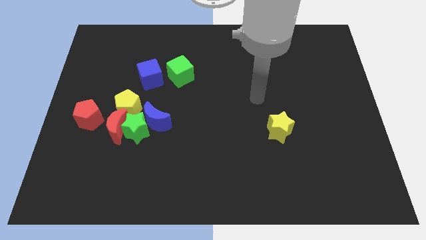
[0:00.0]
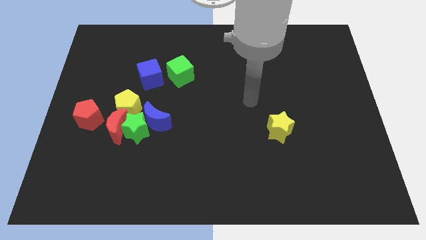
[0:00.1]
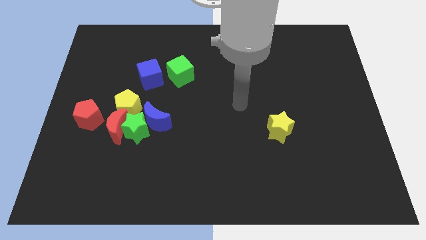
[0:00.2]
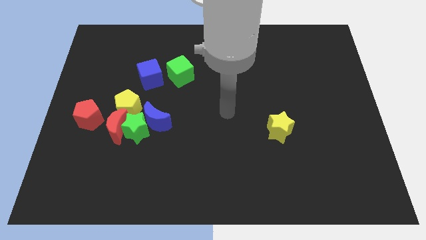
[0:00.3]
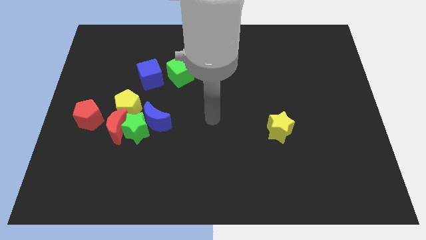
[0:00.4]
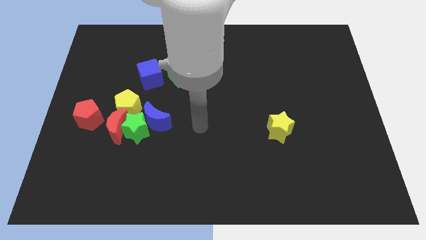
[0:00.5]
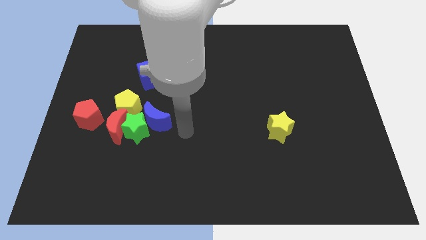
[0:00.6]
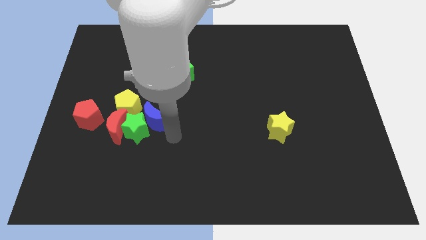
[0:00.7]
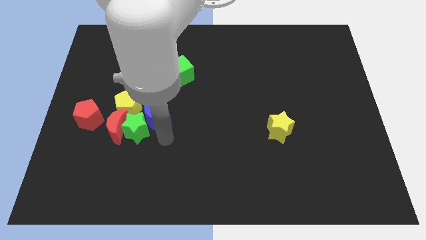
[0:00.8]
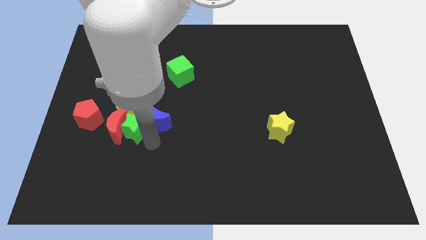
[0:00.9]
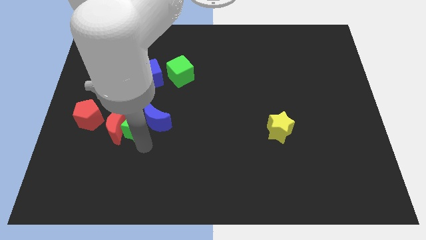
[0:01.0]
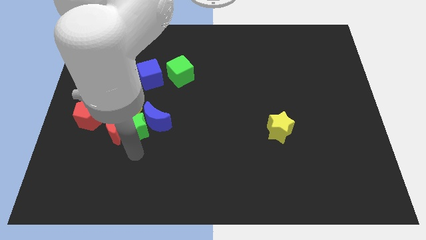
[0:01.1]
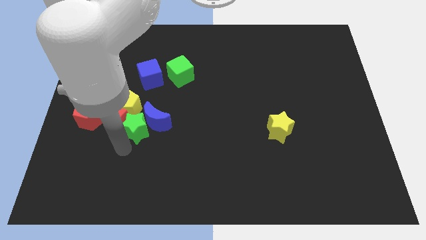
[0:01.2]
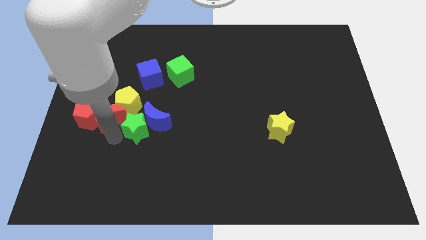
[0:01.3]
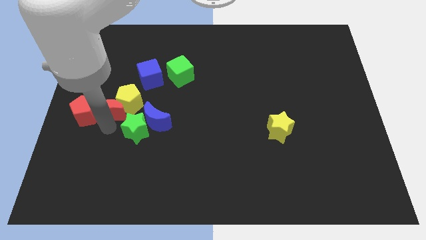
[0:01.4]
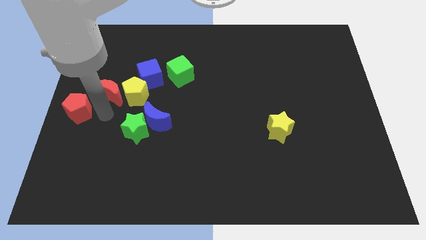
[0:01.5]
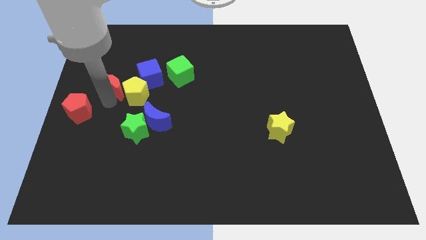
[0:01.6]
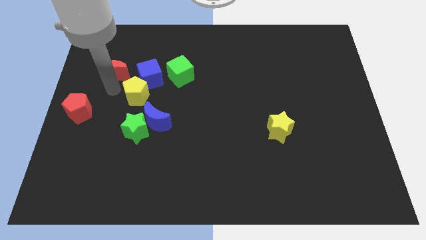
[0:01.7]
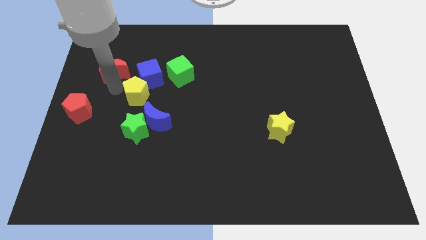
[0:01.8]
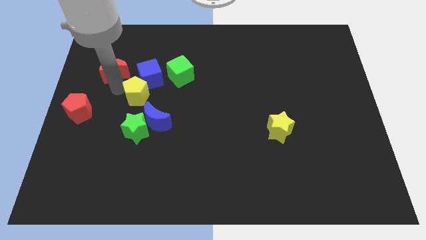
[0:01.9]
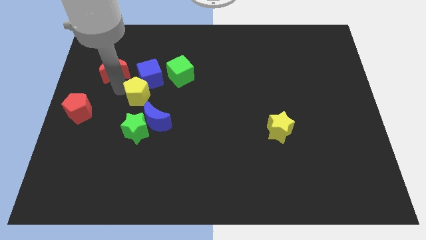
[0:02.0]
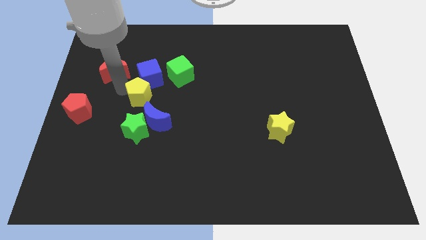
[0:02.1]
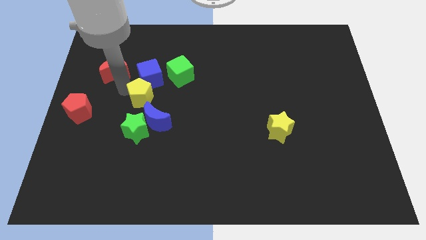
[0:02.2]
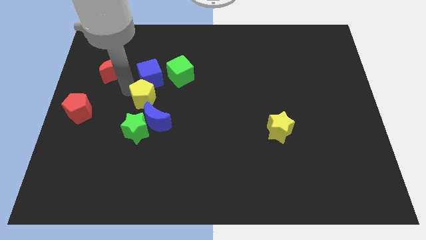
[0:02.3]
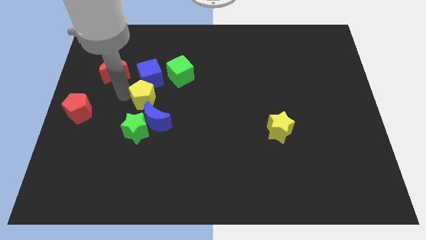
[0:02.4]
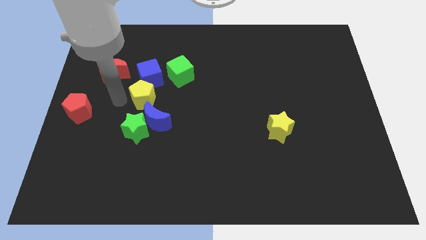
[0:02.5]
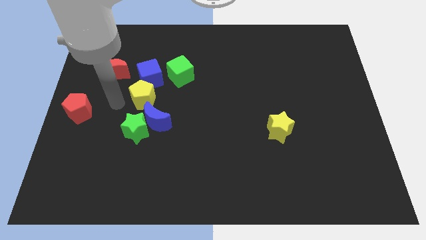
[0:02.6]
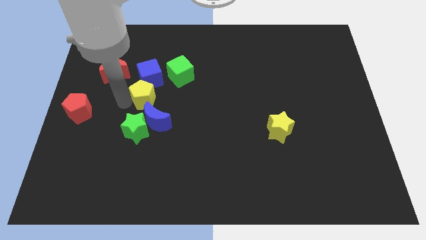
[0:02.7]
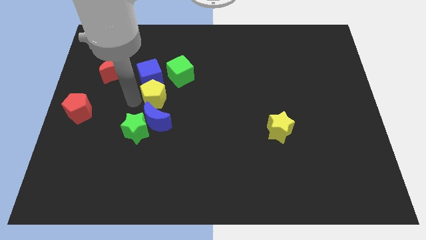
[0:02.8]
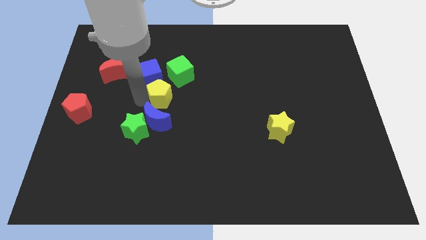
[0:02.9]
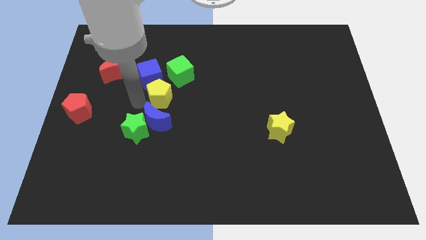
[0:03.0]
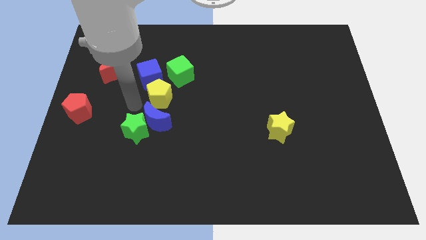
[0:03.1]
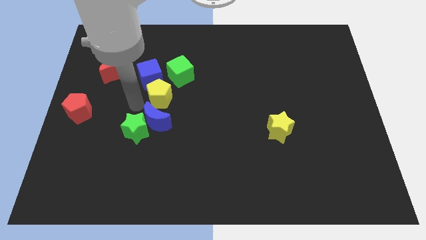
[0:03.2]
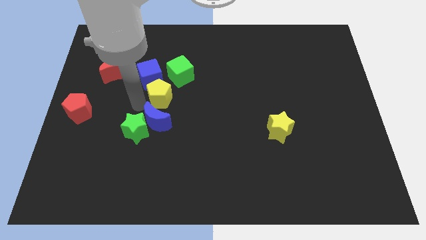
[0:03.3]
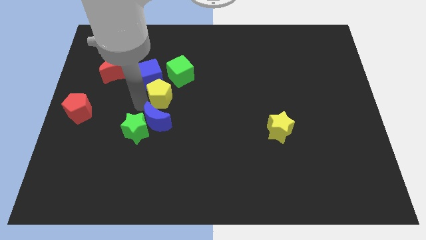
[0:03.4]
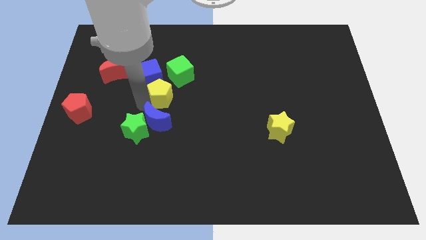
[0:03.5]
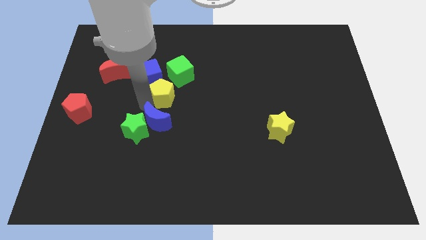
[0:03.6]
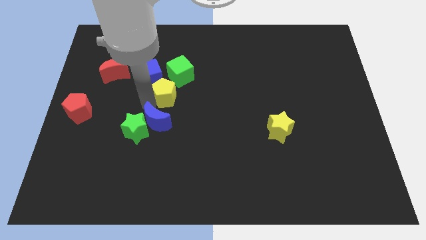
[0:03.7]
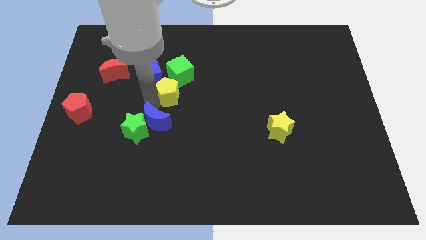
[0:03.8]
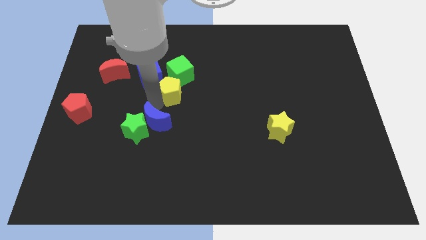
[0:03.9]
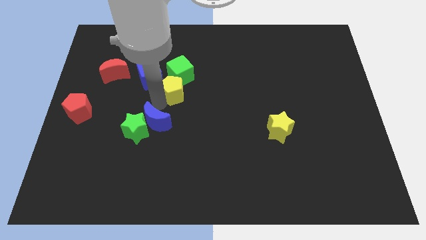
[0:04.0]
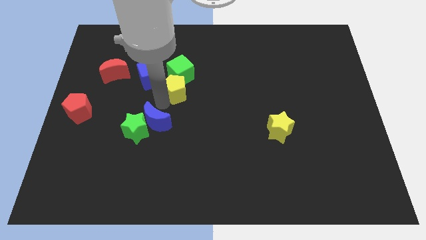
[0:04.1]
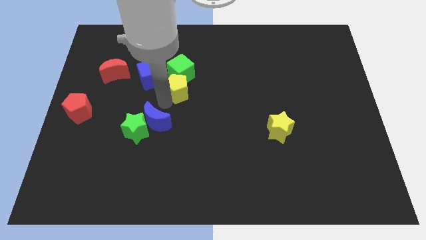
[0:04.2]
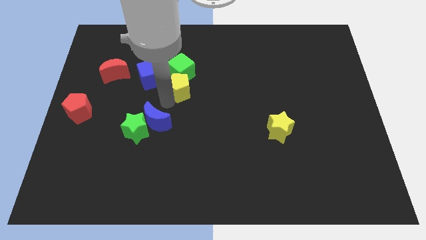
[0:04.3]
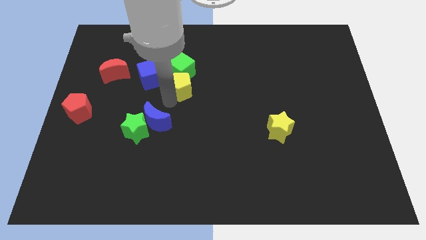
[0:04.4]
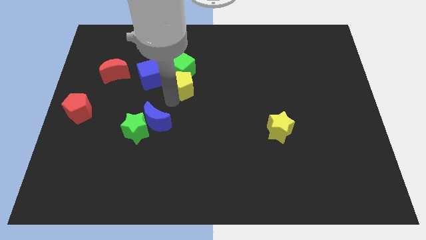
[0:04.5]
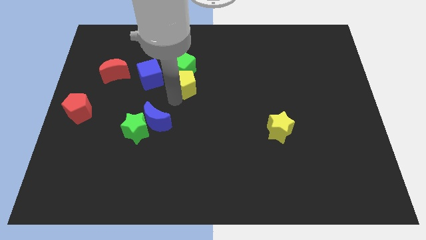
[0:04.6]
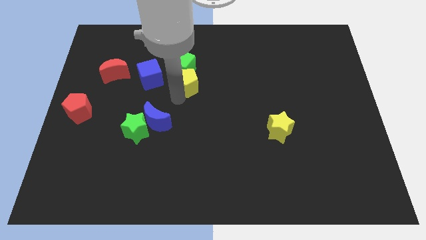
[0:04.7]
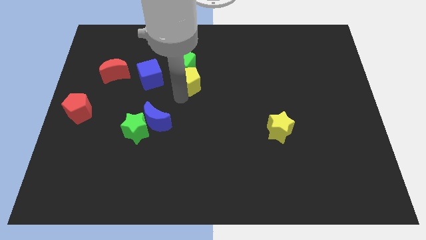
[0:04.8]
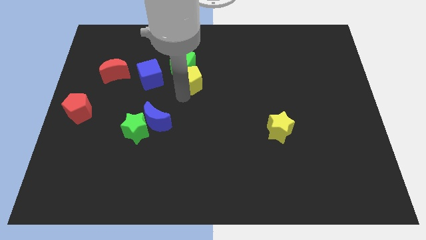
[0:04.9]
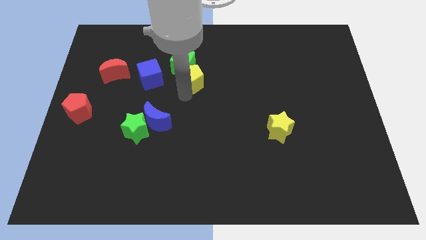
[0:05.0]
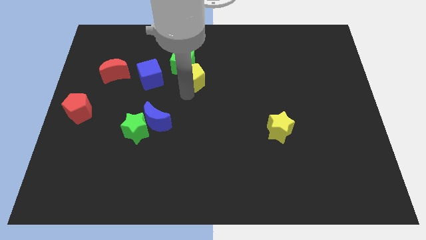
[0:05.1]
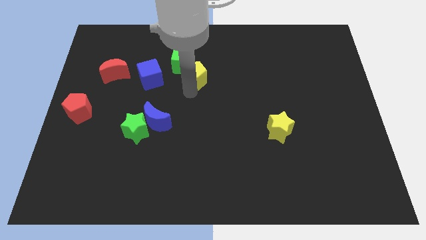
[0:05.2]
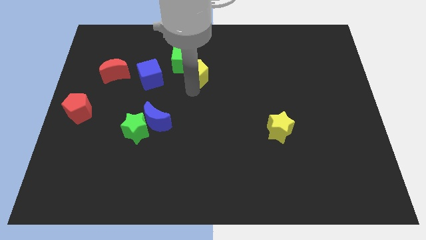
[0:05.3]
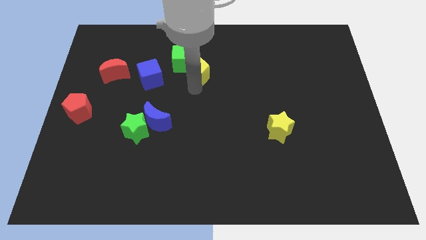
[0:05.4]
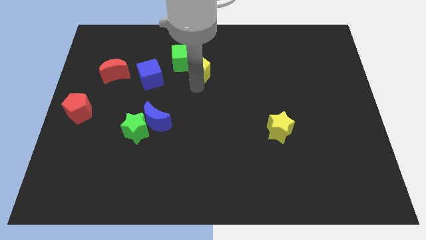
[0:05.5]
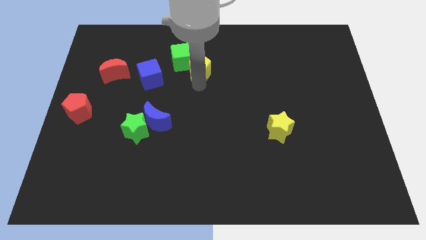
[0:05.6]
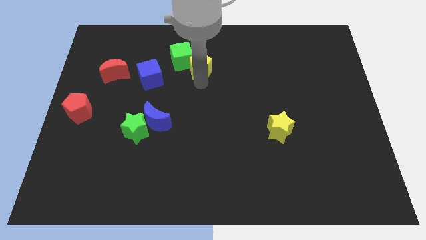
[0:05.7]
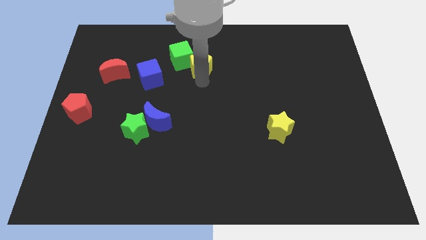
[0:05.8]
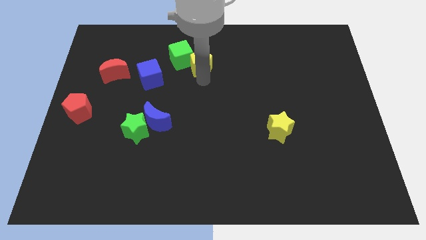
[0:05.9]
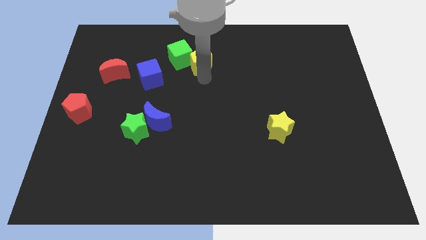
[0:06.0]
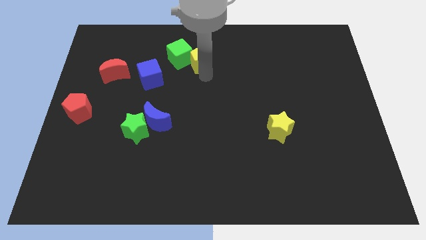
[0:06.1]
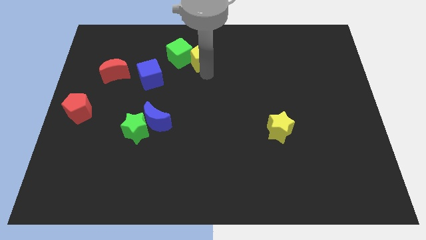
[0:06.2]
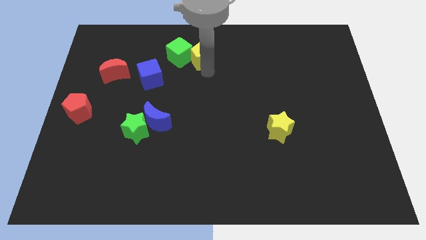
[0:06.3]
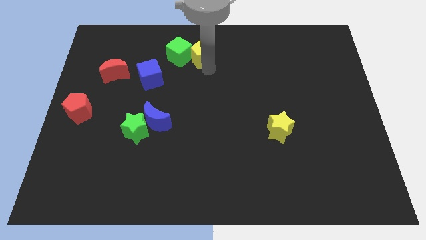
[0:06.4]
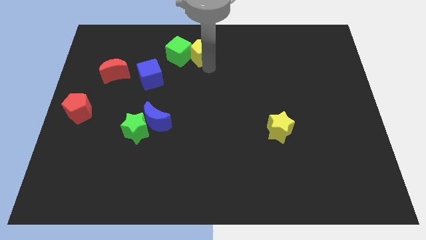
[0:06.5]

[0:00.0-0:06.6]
slide the yellow pentagon to the towards your base
